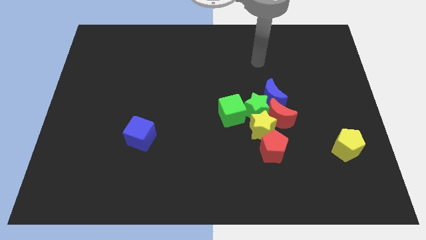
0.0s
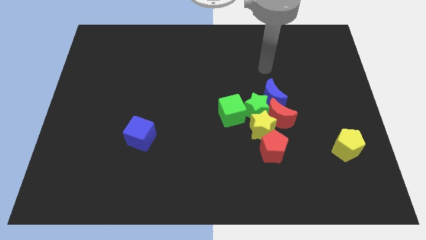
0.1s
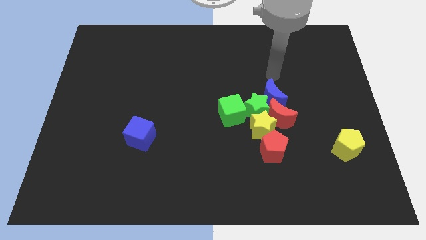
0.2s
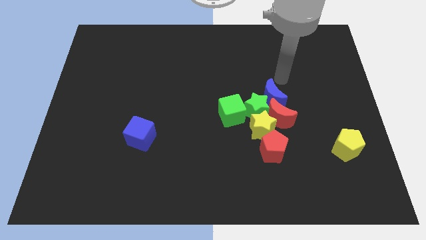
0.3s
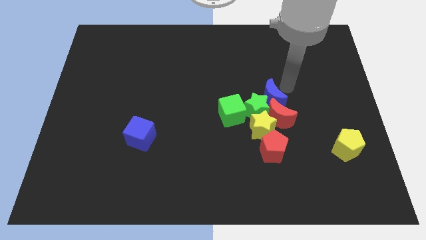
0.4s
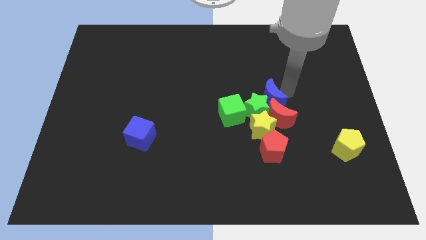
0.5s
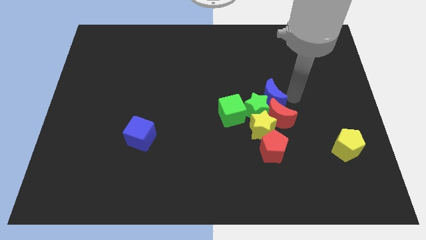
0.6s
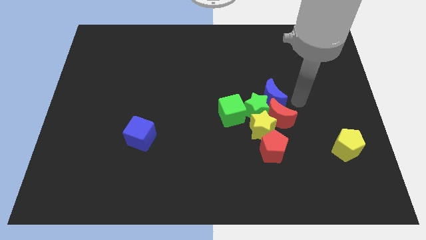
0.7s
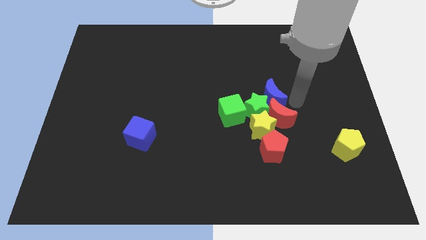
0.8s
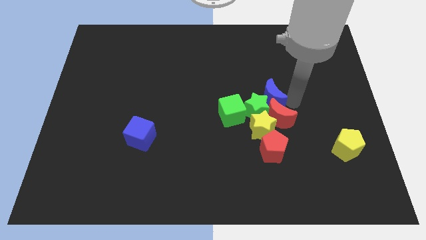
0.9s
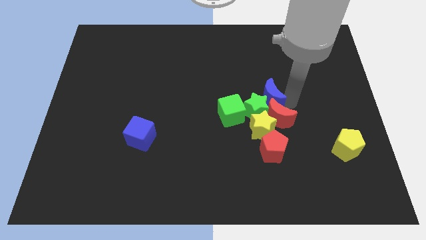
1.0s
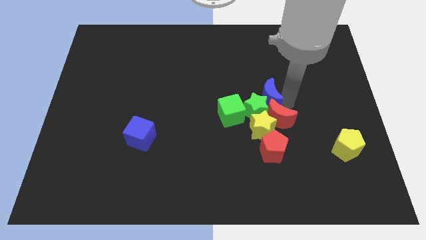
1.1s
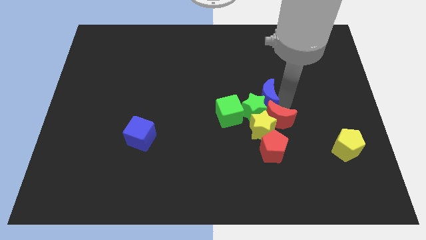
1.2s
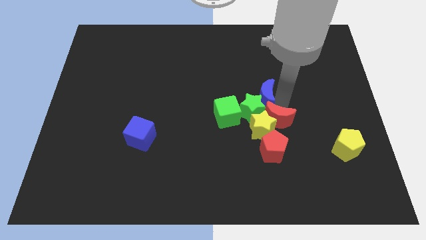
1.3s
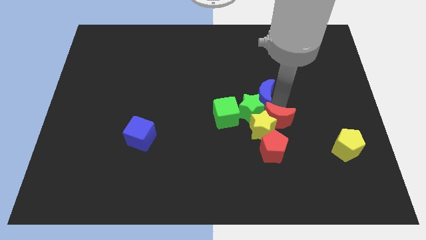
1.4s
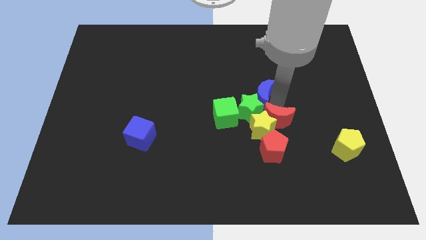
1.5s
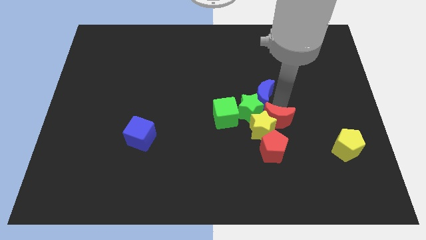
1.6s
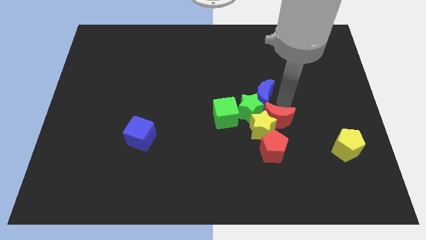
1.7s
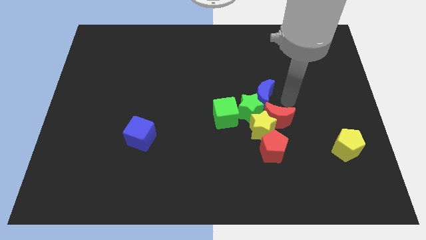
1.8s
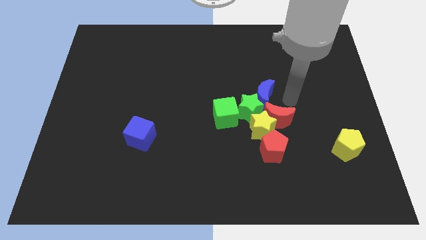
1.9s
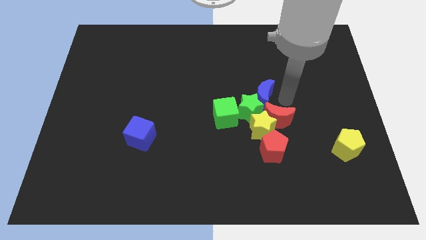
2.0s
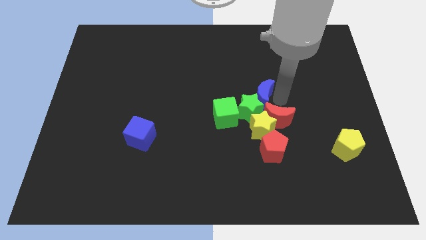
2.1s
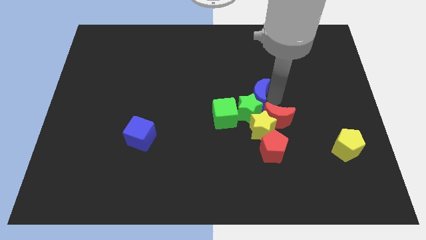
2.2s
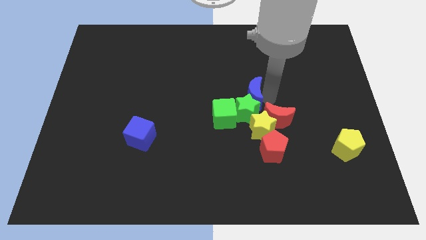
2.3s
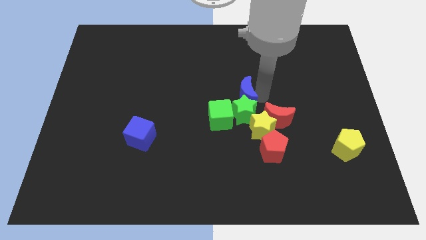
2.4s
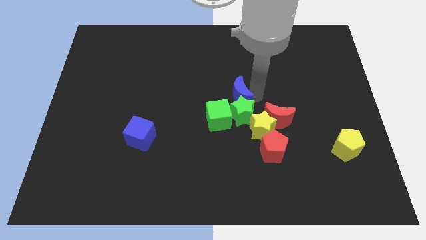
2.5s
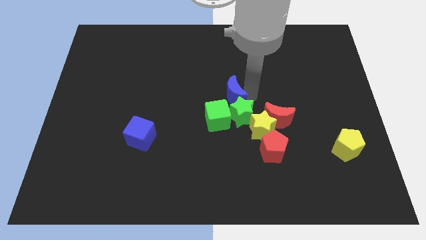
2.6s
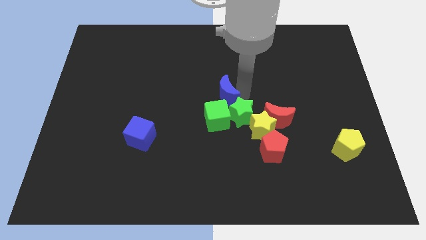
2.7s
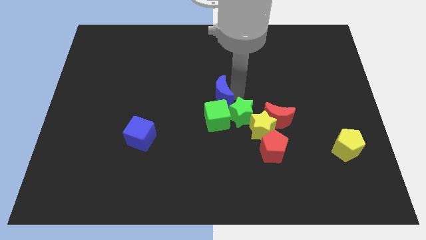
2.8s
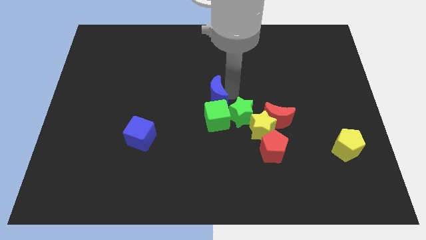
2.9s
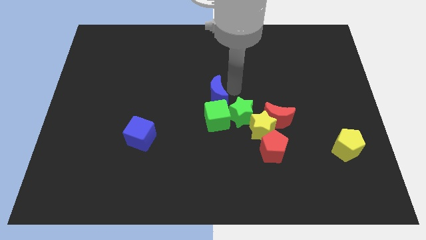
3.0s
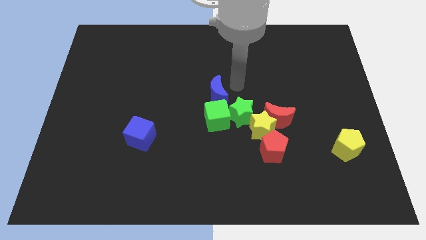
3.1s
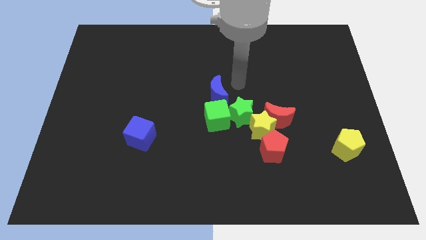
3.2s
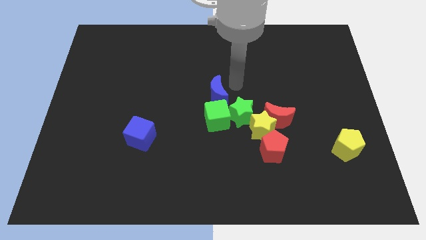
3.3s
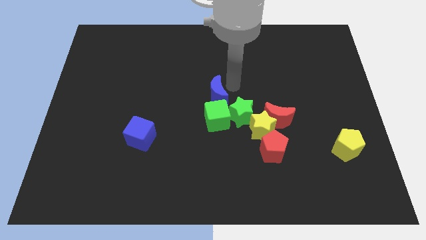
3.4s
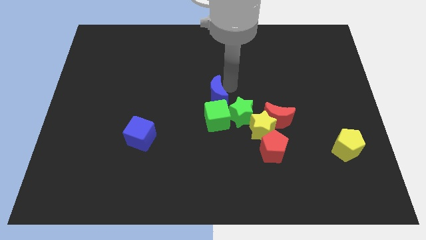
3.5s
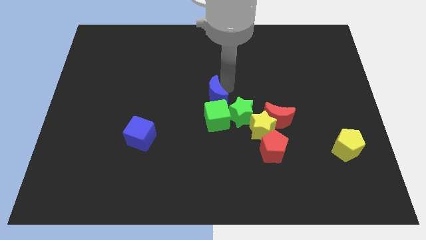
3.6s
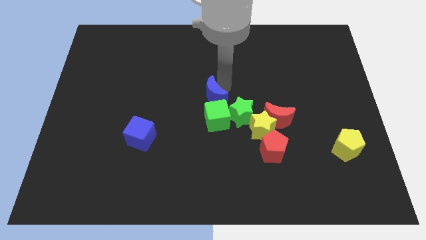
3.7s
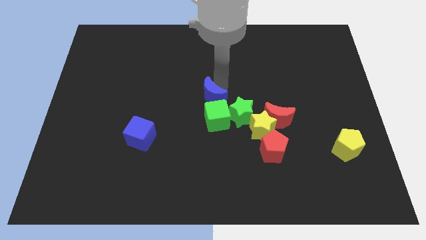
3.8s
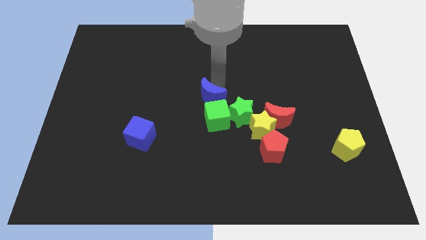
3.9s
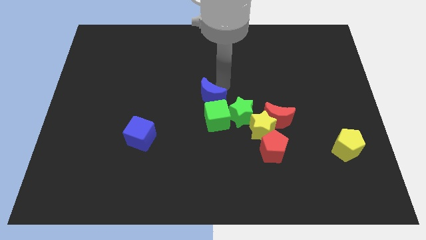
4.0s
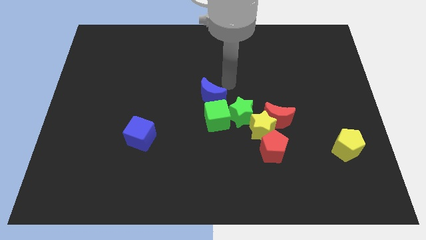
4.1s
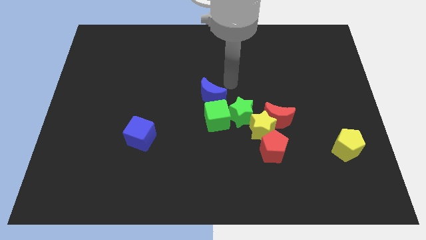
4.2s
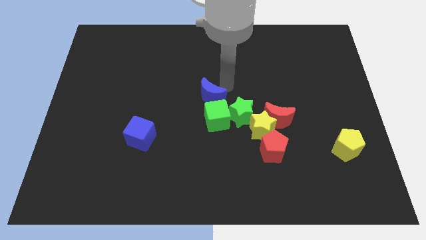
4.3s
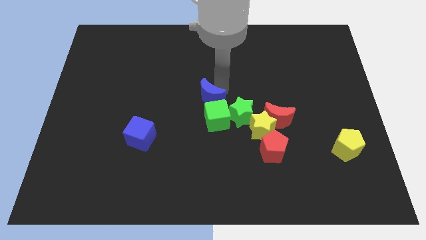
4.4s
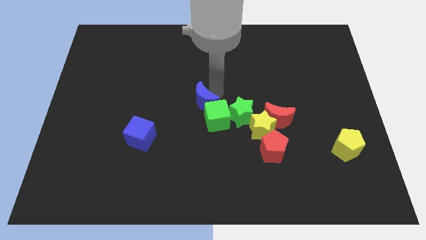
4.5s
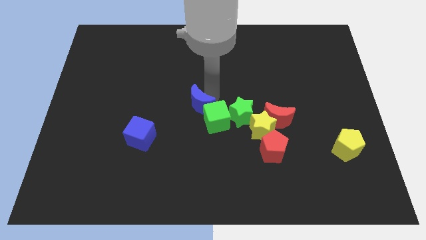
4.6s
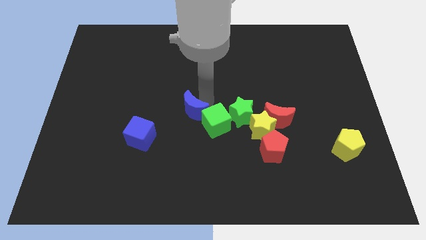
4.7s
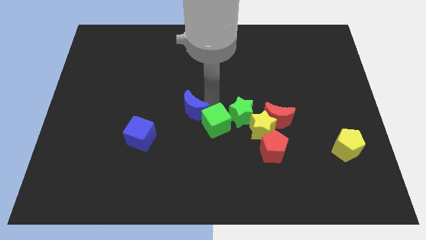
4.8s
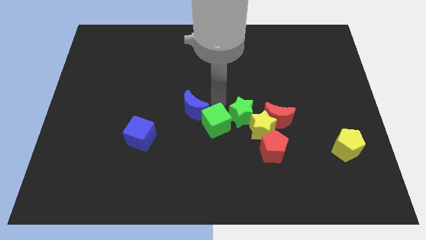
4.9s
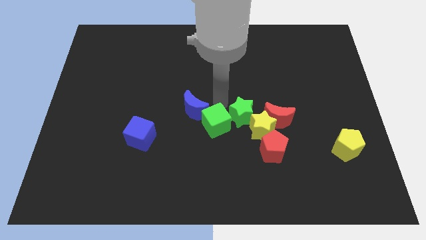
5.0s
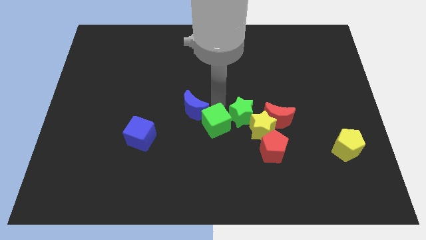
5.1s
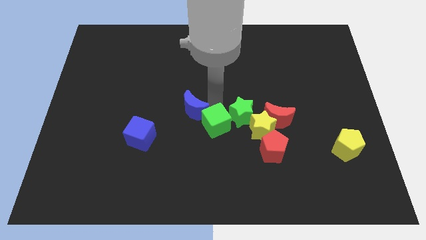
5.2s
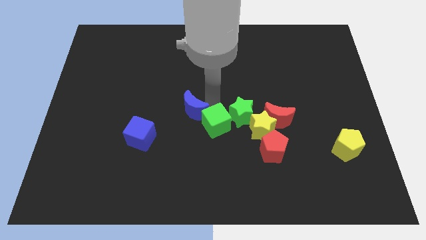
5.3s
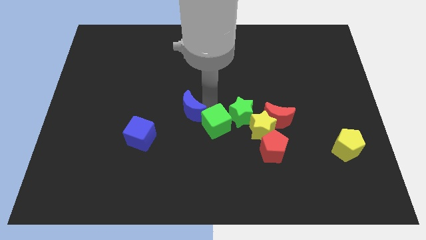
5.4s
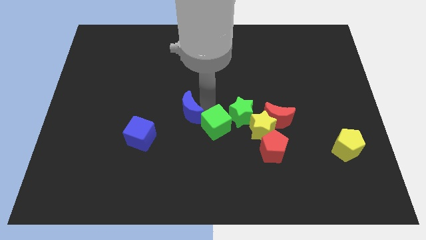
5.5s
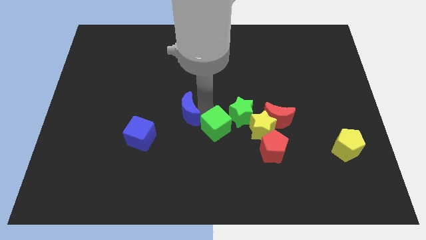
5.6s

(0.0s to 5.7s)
move the blue moon to the top right of the blue cube

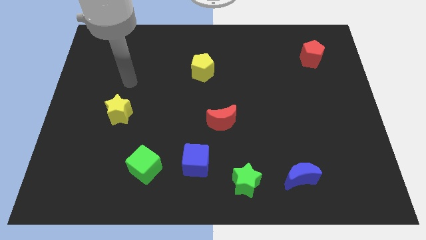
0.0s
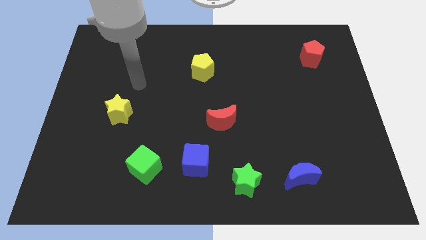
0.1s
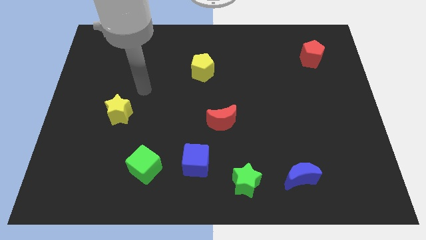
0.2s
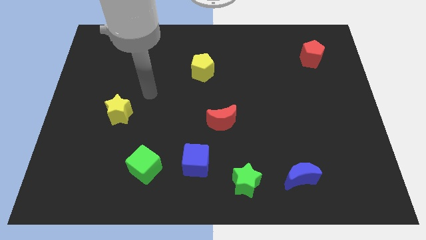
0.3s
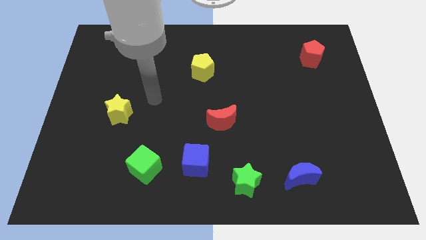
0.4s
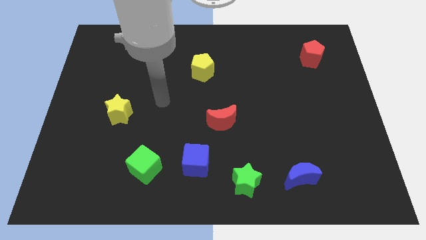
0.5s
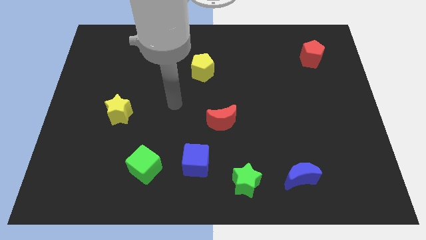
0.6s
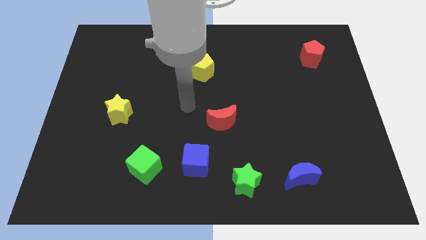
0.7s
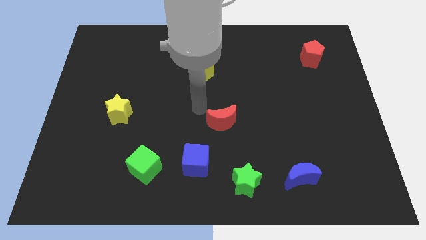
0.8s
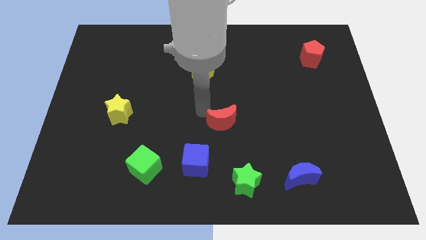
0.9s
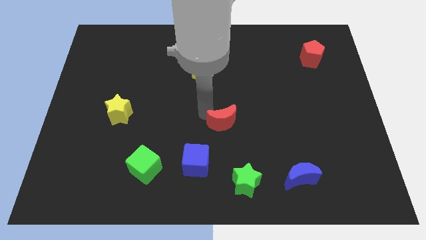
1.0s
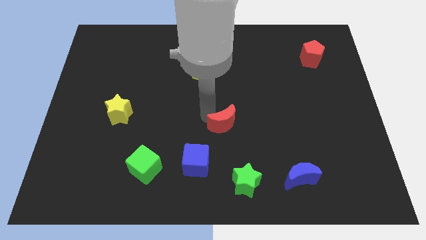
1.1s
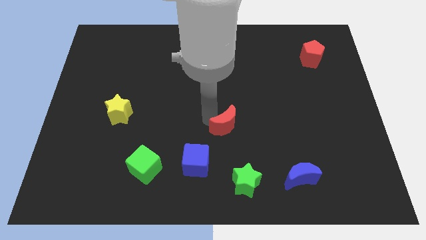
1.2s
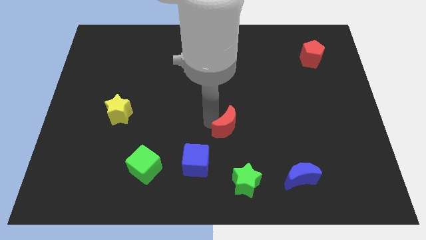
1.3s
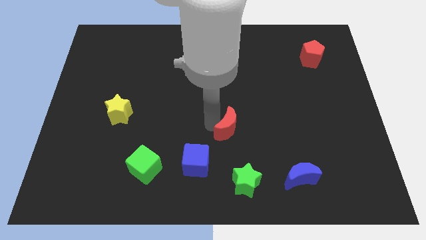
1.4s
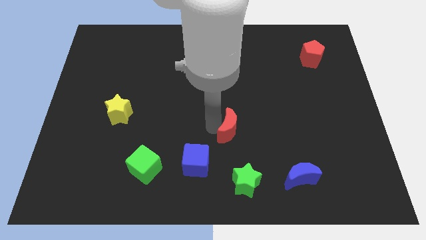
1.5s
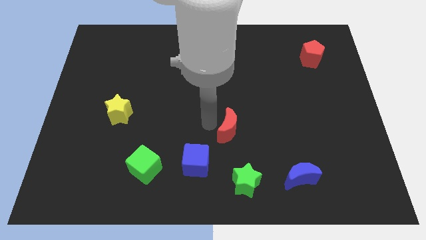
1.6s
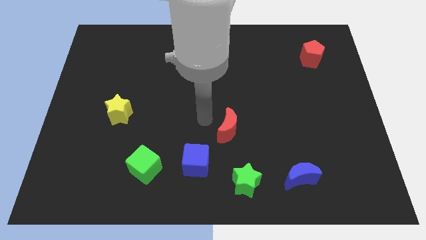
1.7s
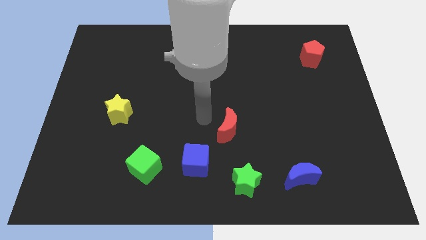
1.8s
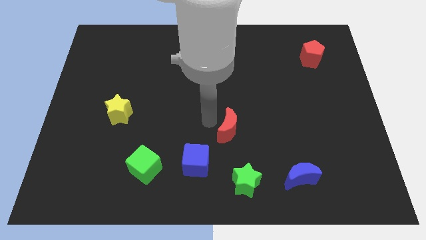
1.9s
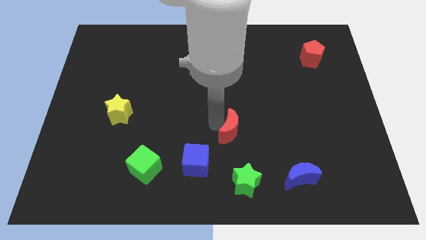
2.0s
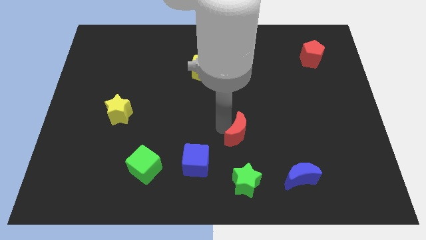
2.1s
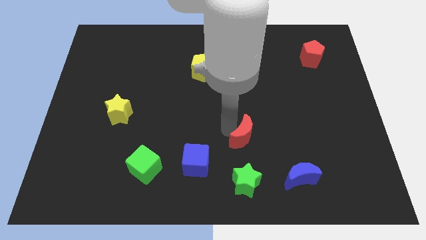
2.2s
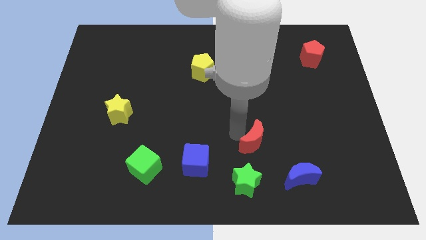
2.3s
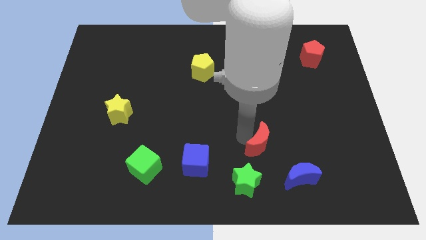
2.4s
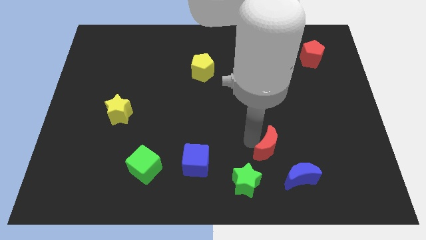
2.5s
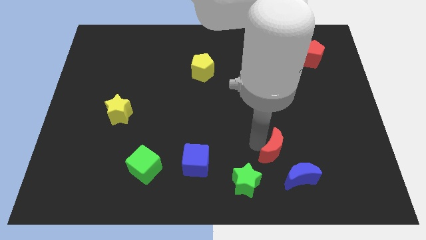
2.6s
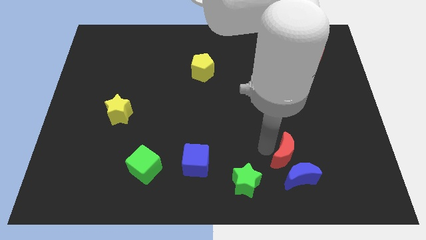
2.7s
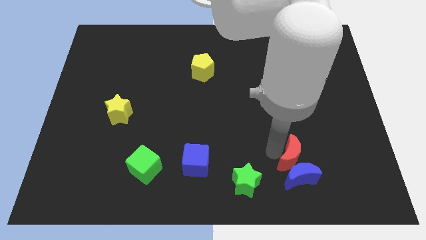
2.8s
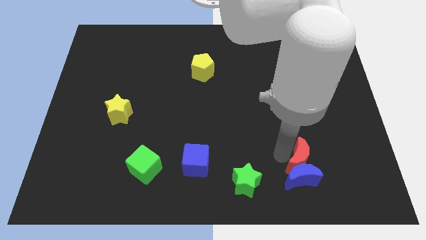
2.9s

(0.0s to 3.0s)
push the red moon to the right side of the green star
